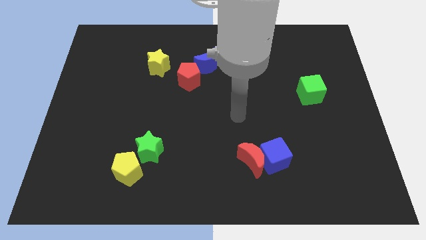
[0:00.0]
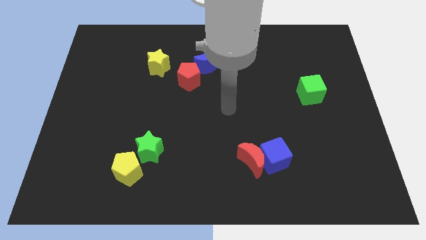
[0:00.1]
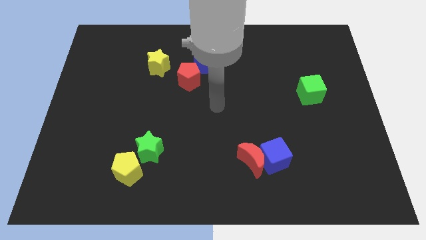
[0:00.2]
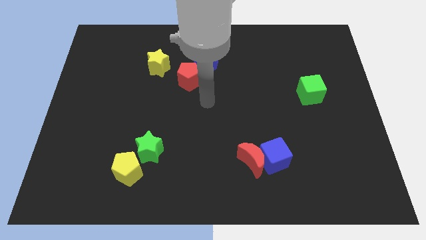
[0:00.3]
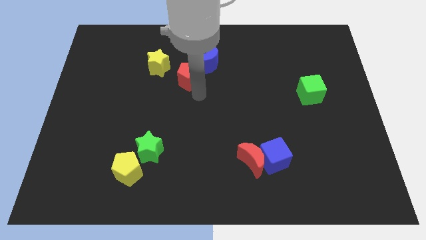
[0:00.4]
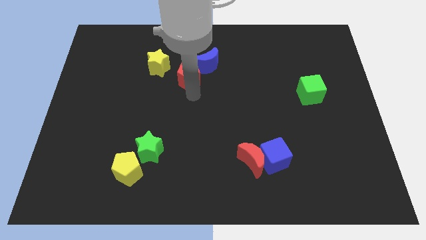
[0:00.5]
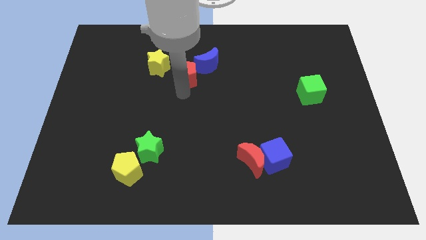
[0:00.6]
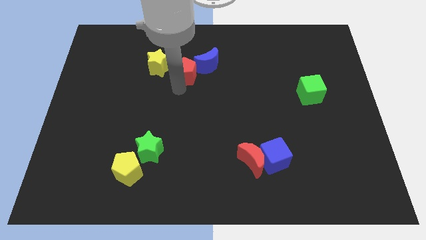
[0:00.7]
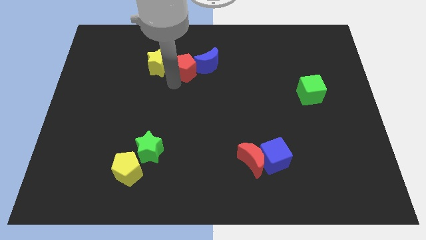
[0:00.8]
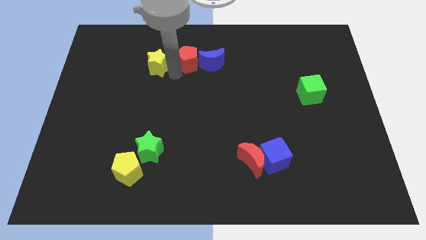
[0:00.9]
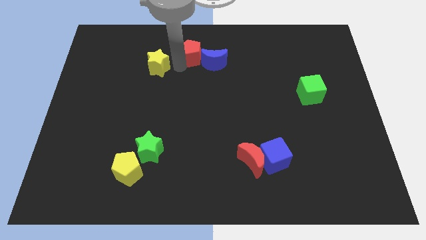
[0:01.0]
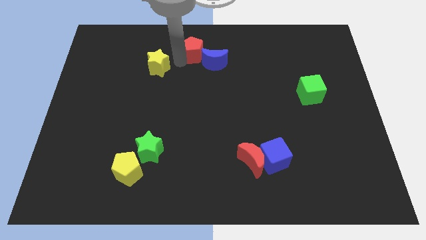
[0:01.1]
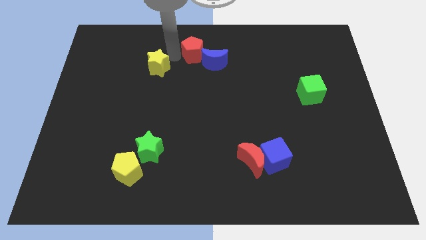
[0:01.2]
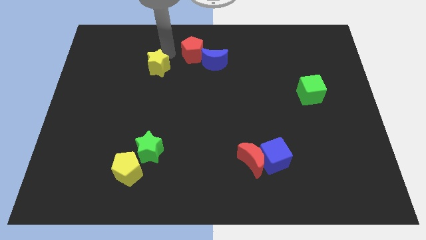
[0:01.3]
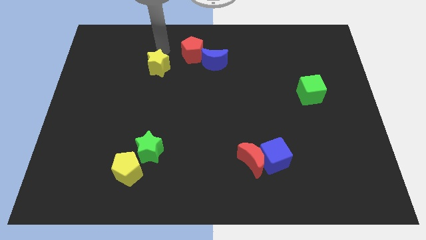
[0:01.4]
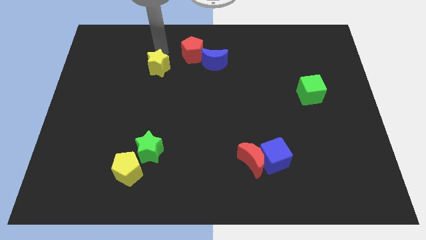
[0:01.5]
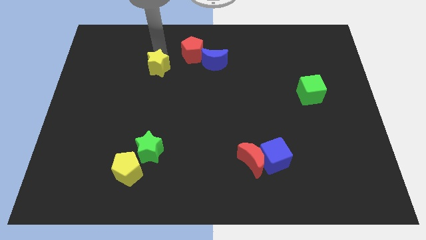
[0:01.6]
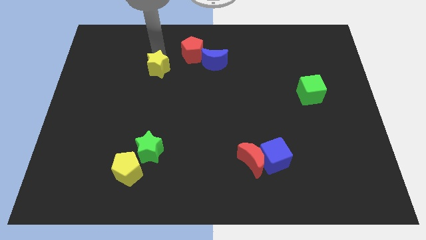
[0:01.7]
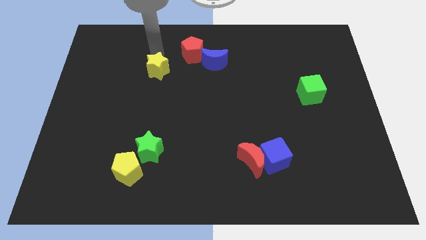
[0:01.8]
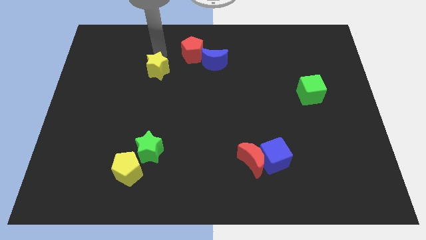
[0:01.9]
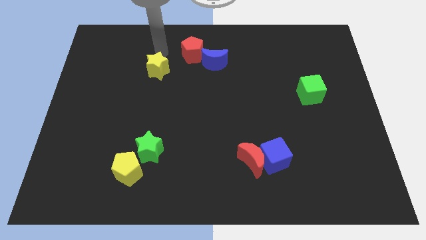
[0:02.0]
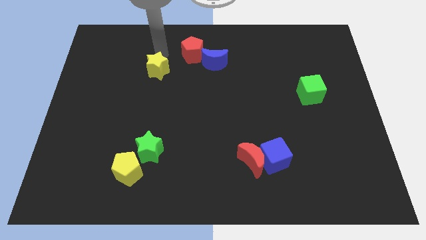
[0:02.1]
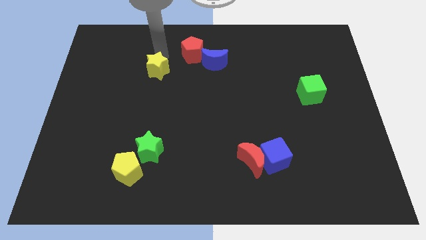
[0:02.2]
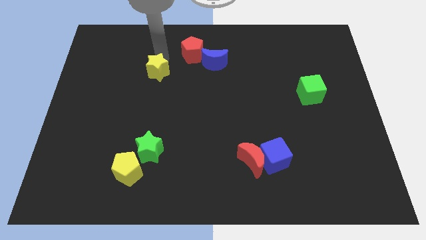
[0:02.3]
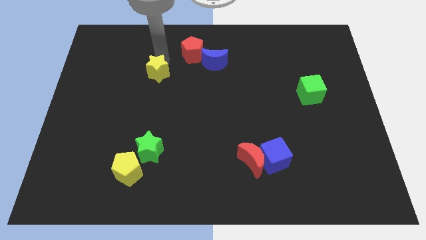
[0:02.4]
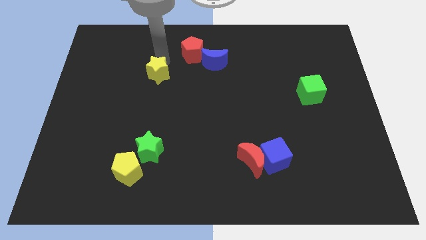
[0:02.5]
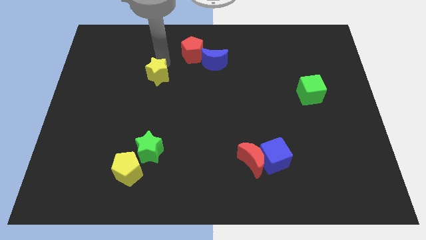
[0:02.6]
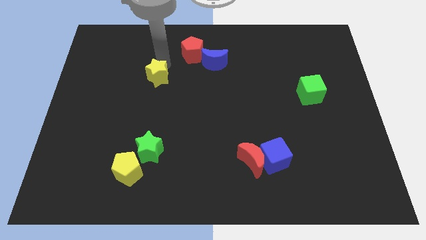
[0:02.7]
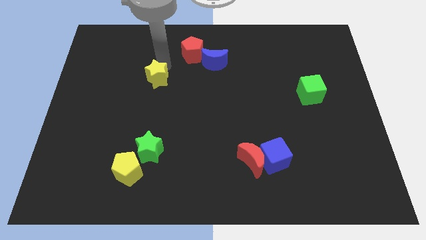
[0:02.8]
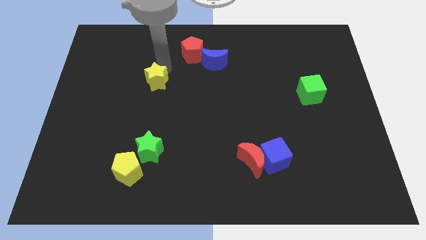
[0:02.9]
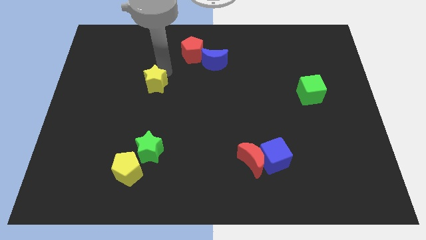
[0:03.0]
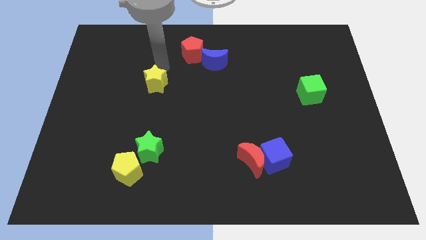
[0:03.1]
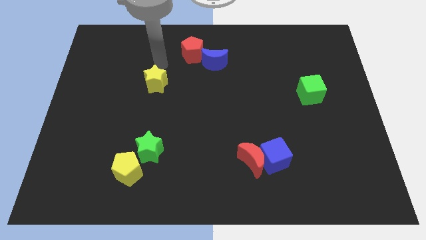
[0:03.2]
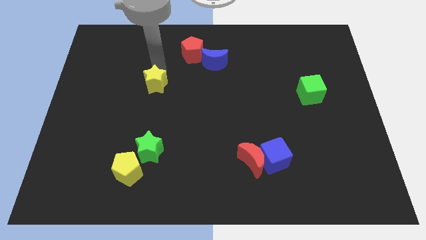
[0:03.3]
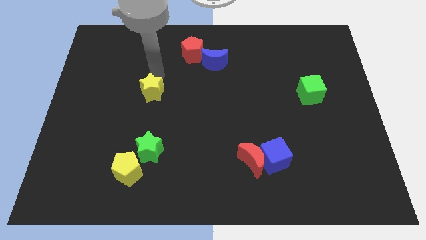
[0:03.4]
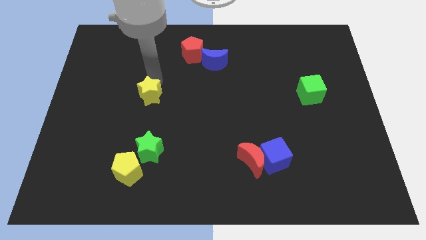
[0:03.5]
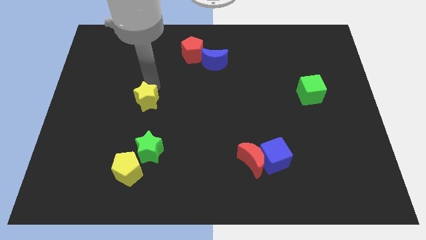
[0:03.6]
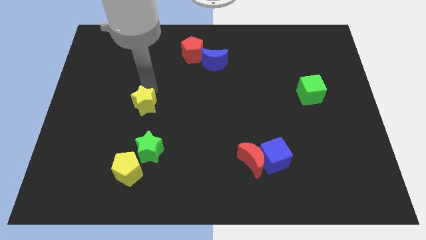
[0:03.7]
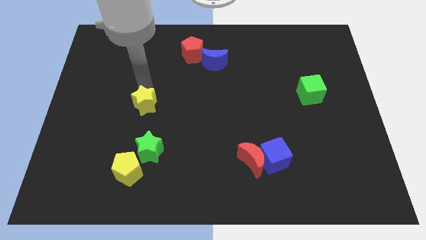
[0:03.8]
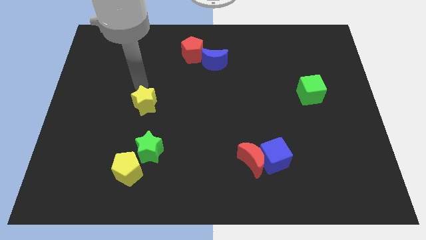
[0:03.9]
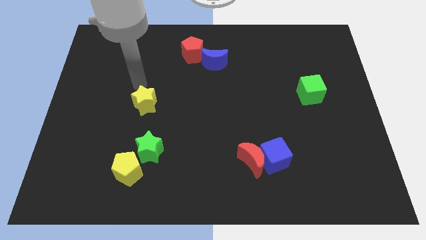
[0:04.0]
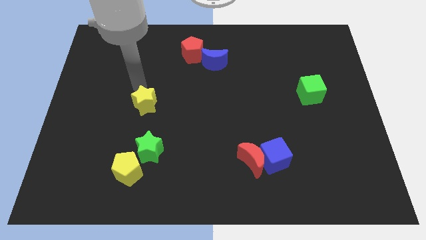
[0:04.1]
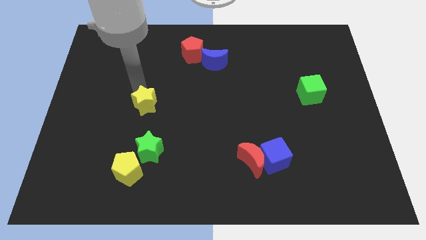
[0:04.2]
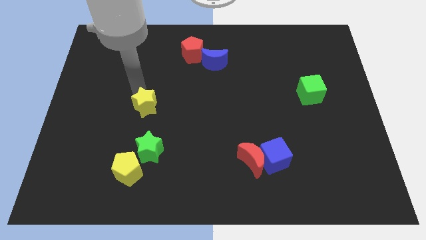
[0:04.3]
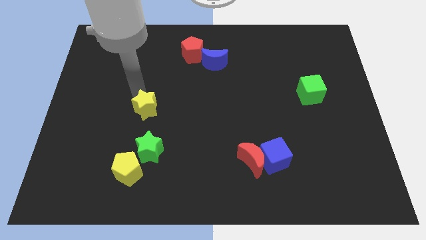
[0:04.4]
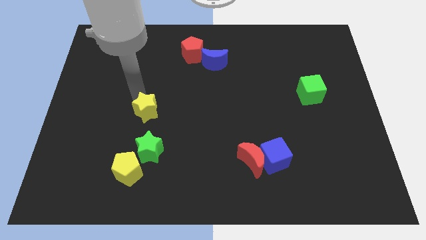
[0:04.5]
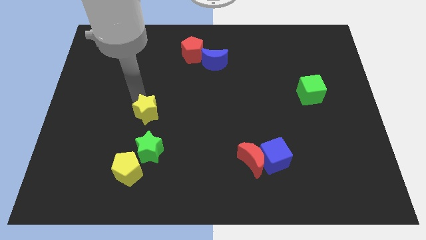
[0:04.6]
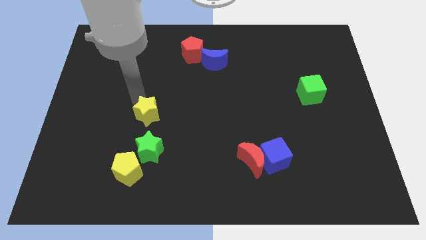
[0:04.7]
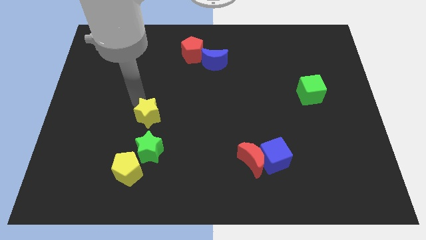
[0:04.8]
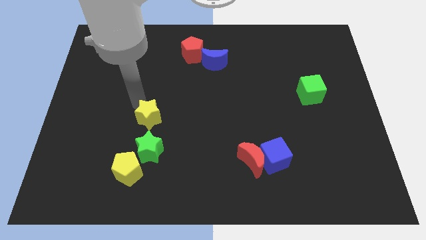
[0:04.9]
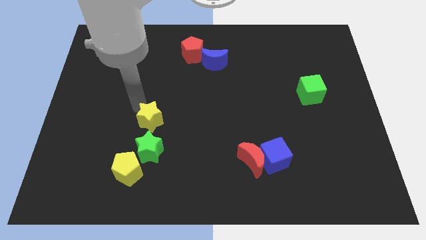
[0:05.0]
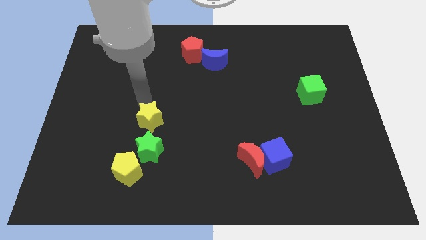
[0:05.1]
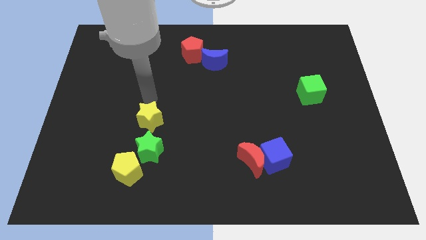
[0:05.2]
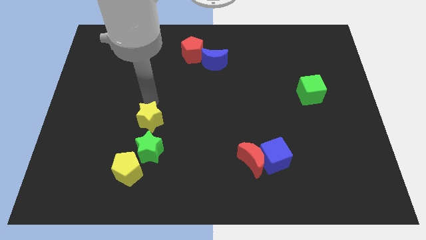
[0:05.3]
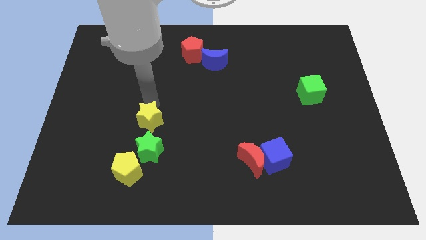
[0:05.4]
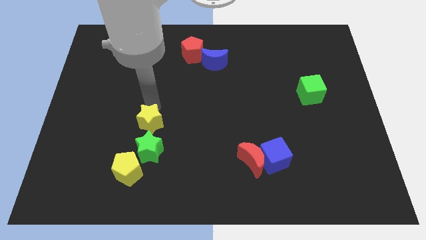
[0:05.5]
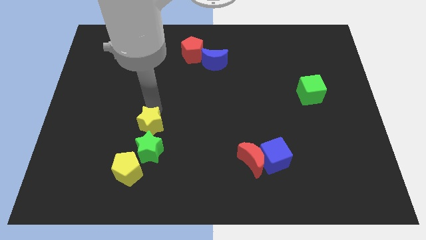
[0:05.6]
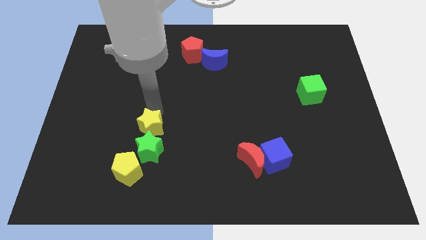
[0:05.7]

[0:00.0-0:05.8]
put the yellow star towards the green star

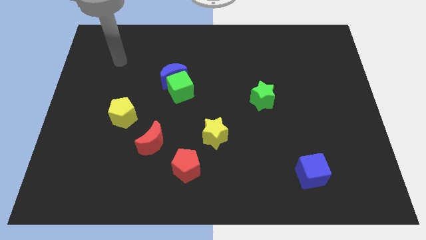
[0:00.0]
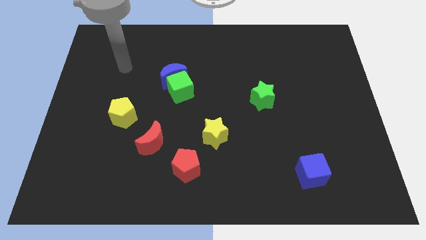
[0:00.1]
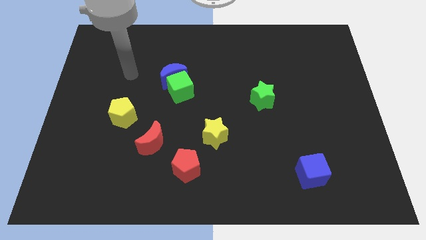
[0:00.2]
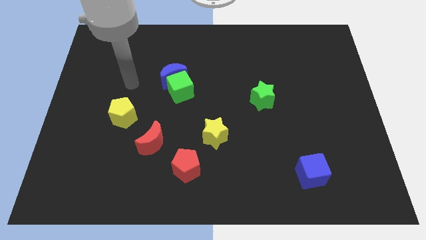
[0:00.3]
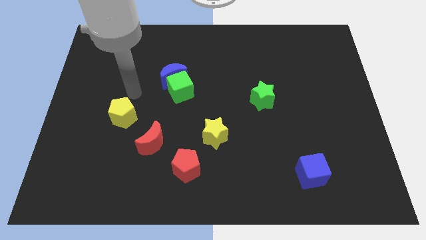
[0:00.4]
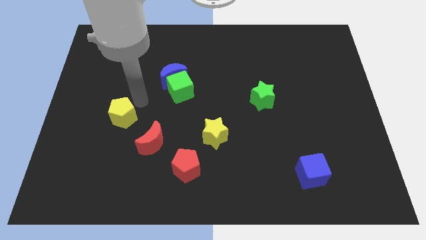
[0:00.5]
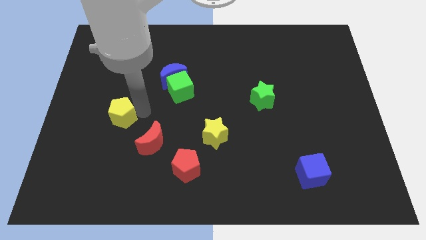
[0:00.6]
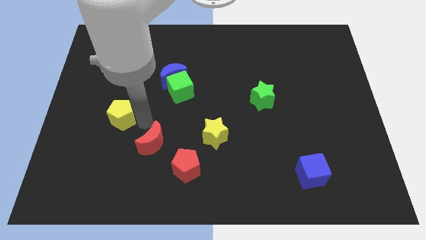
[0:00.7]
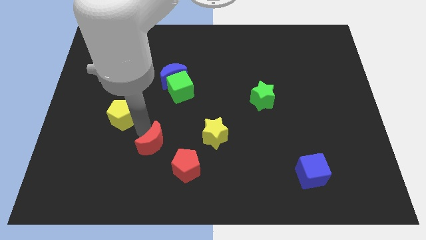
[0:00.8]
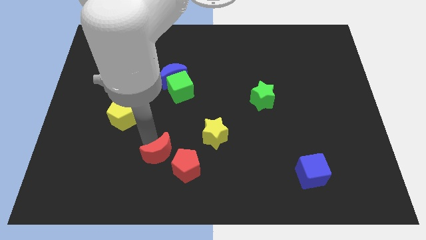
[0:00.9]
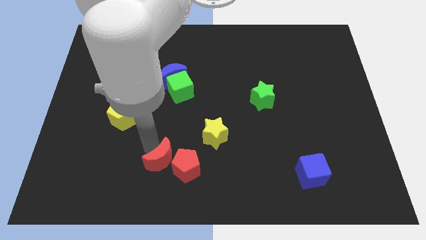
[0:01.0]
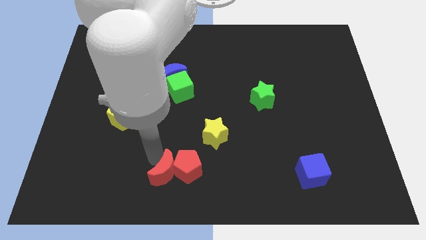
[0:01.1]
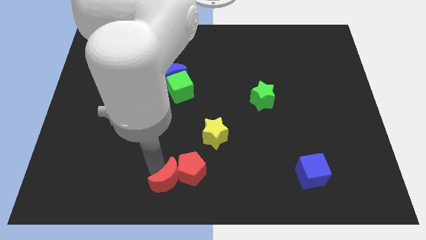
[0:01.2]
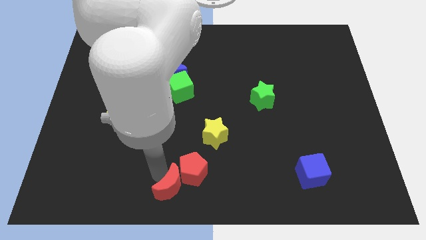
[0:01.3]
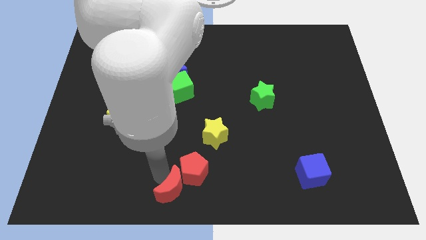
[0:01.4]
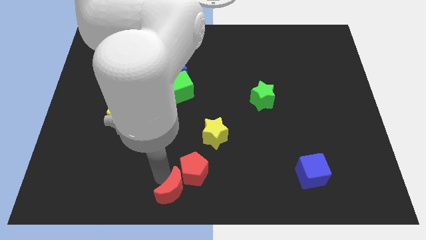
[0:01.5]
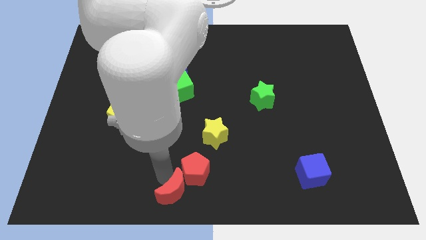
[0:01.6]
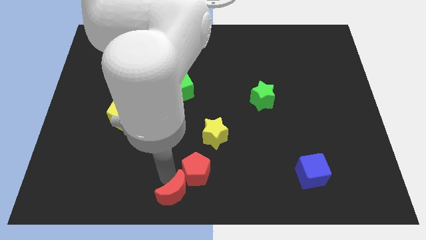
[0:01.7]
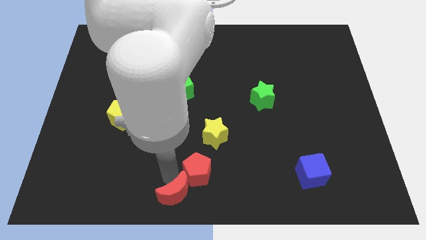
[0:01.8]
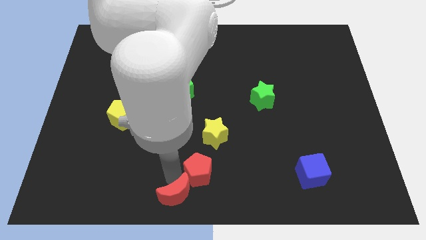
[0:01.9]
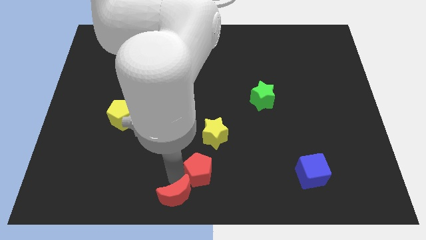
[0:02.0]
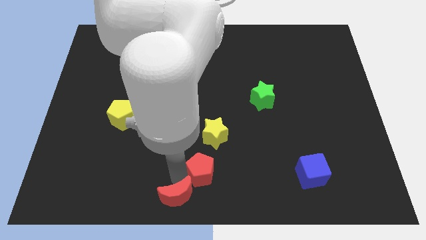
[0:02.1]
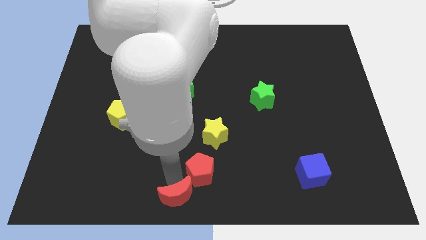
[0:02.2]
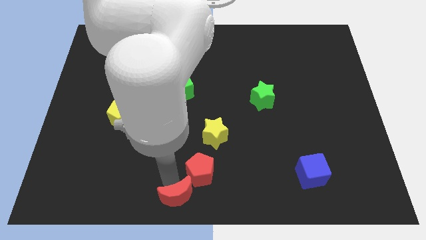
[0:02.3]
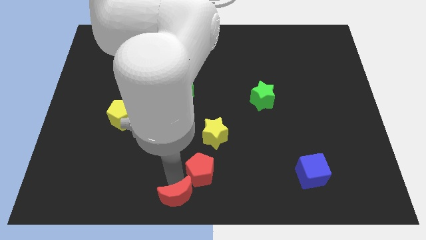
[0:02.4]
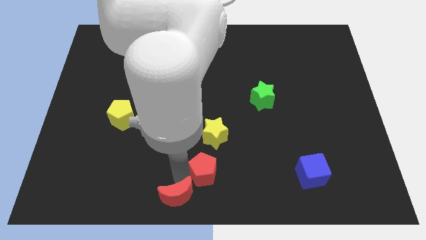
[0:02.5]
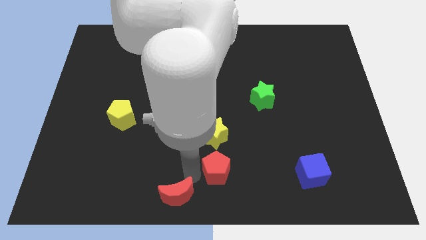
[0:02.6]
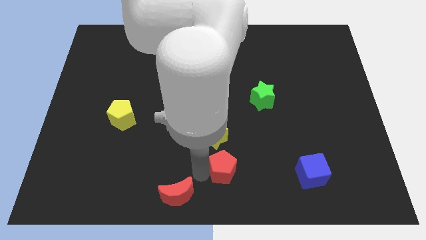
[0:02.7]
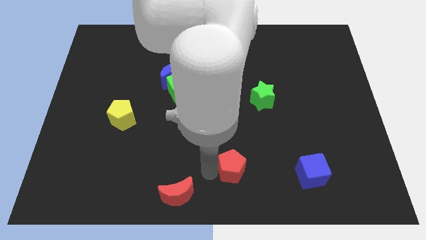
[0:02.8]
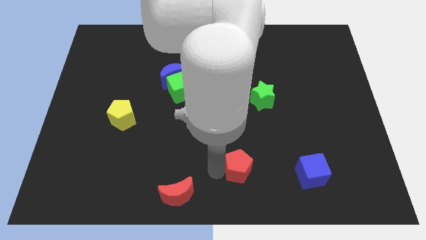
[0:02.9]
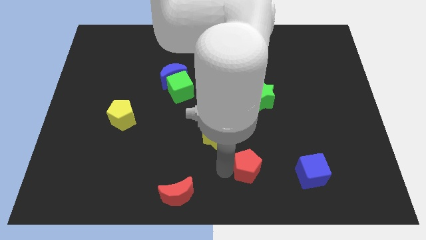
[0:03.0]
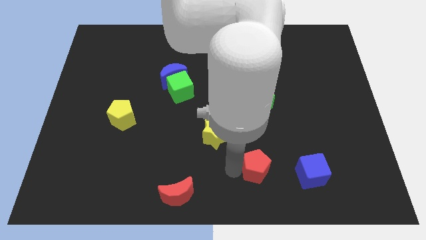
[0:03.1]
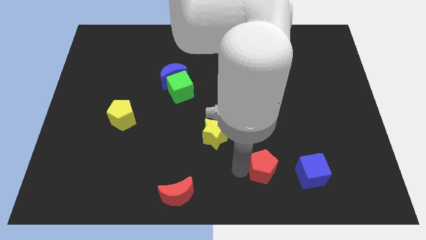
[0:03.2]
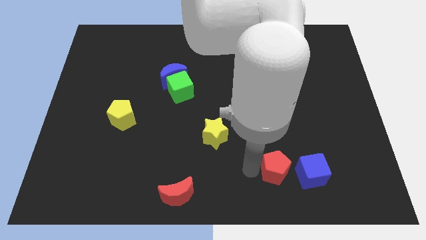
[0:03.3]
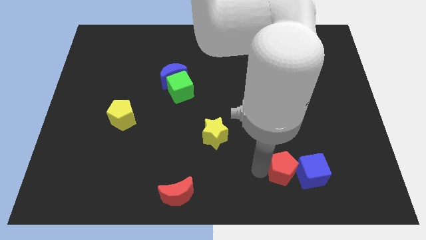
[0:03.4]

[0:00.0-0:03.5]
push the red pentagon towards the blue cube
